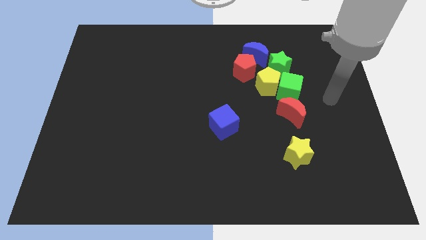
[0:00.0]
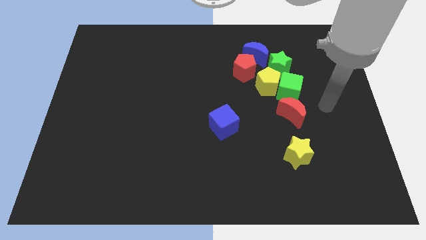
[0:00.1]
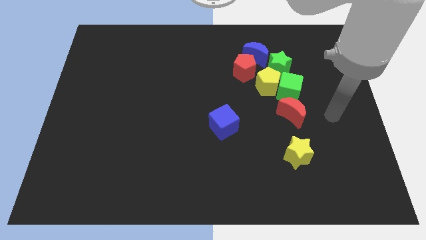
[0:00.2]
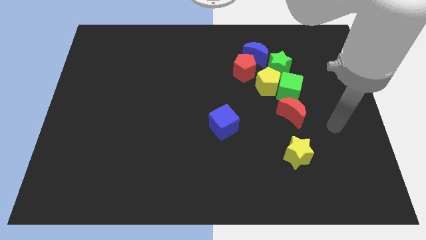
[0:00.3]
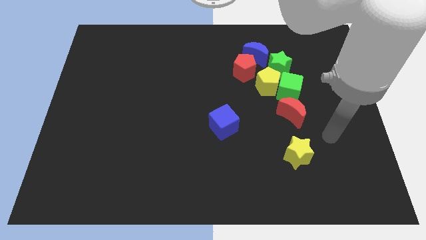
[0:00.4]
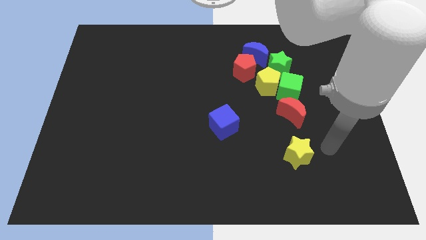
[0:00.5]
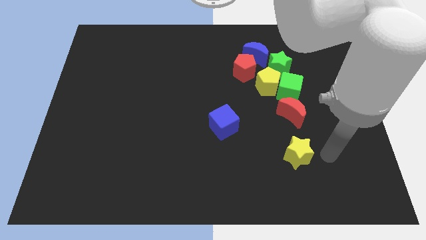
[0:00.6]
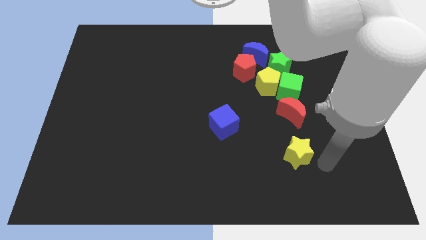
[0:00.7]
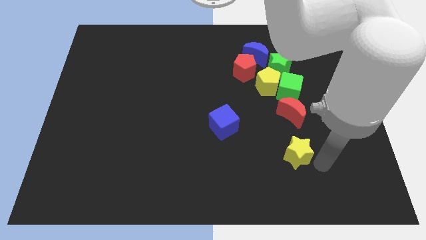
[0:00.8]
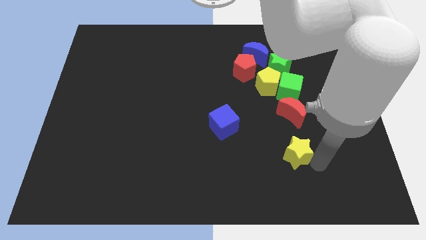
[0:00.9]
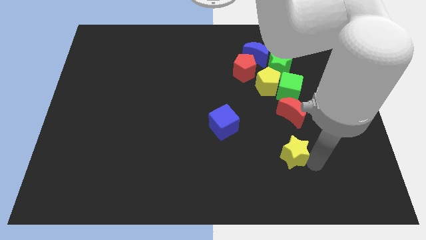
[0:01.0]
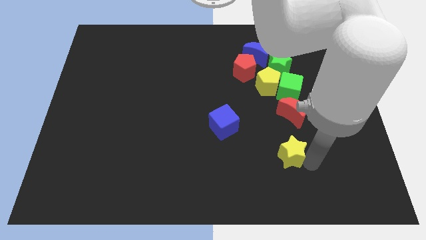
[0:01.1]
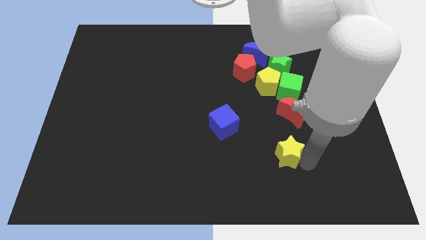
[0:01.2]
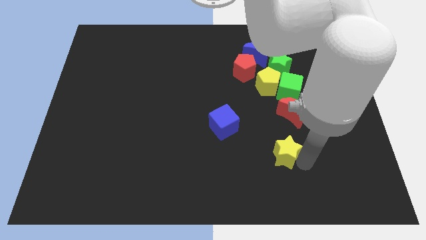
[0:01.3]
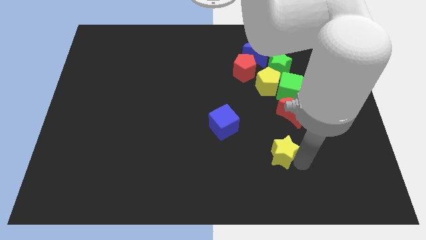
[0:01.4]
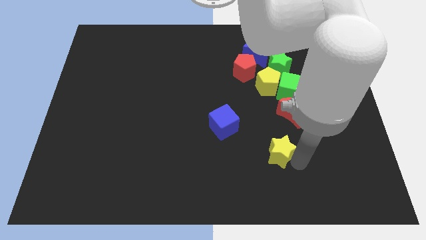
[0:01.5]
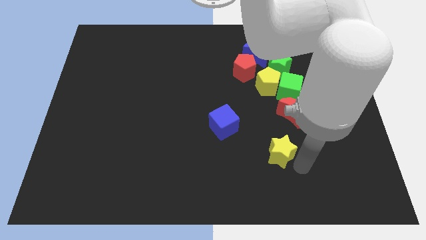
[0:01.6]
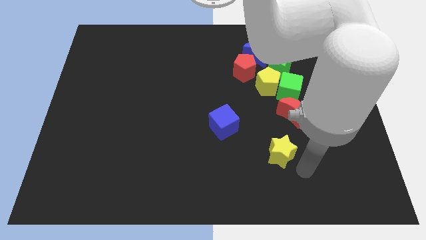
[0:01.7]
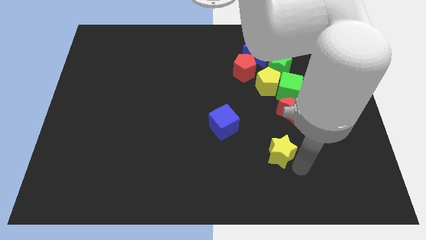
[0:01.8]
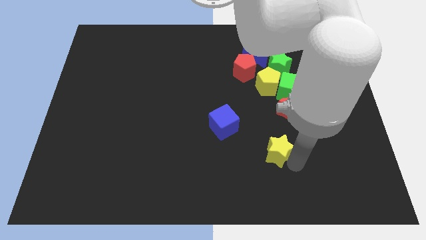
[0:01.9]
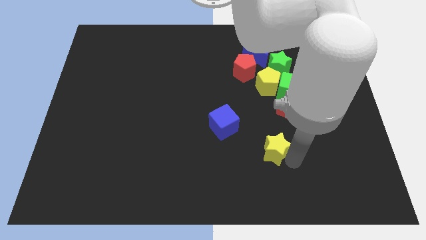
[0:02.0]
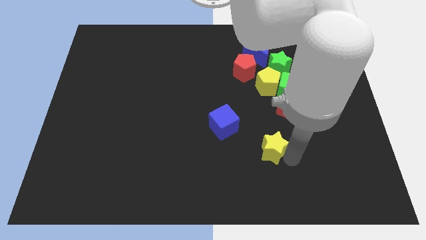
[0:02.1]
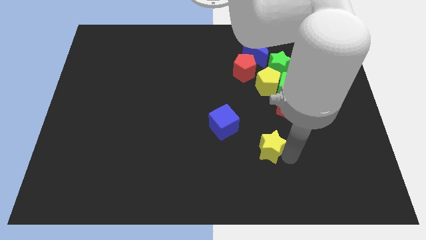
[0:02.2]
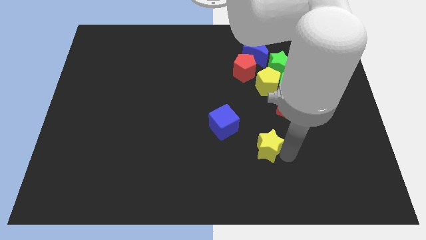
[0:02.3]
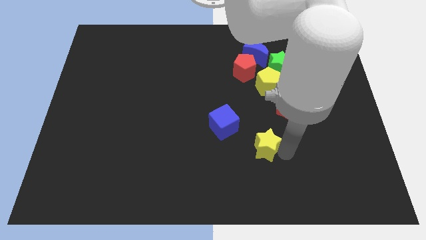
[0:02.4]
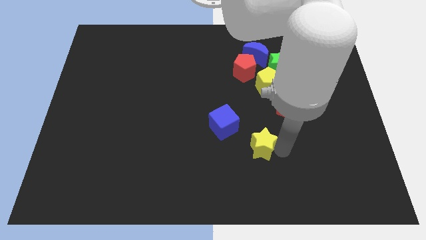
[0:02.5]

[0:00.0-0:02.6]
push the yellow star left a bit

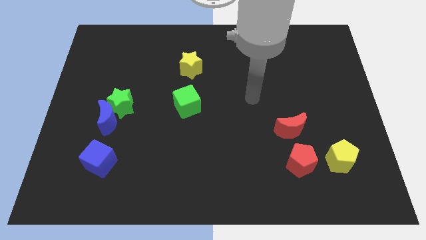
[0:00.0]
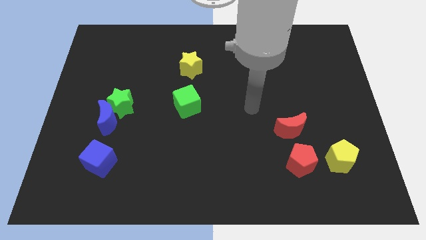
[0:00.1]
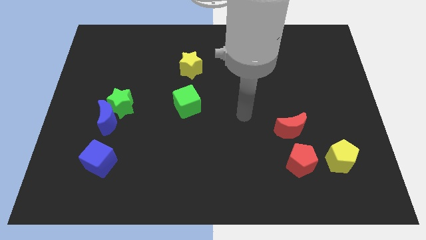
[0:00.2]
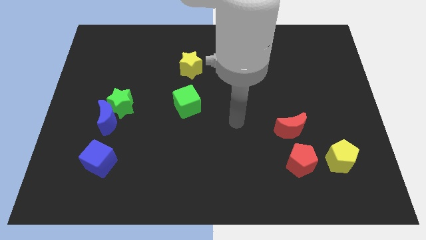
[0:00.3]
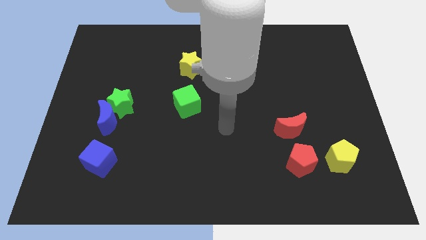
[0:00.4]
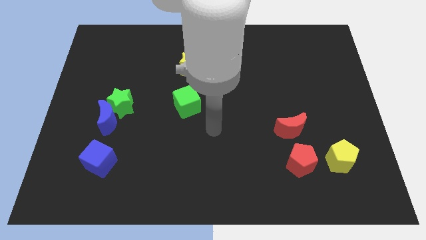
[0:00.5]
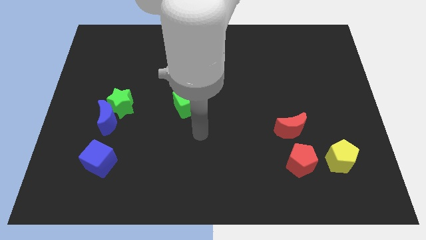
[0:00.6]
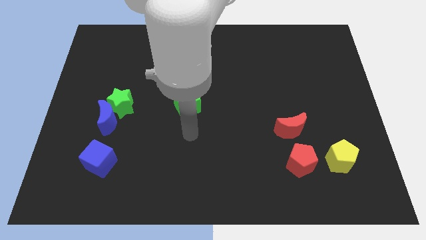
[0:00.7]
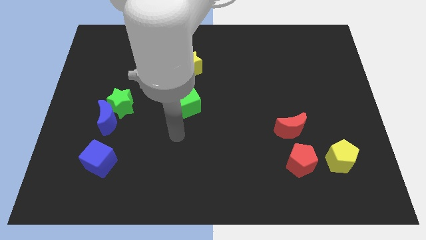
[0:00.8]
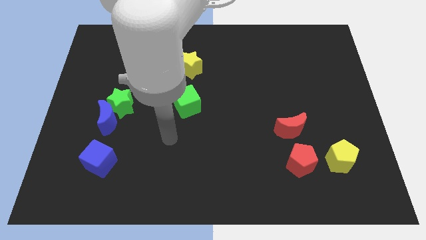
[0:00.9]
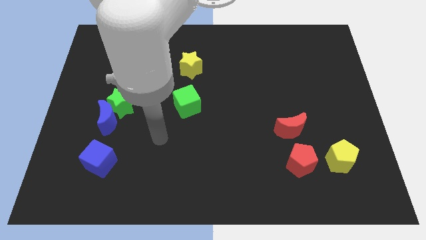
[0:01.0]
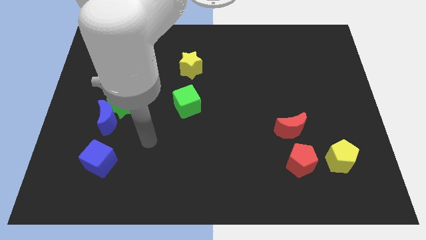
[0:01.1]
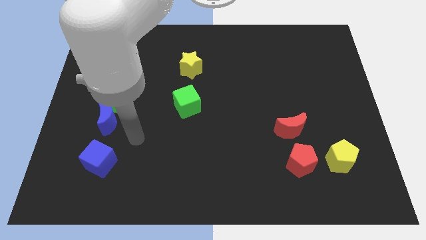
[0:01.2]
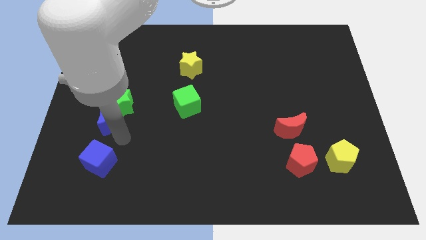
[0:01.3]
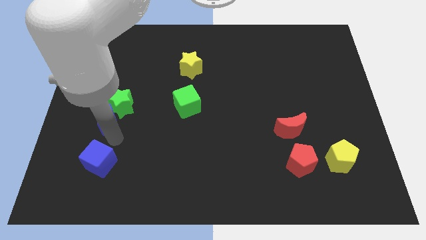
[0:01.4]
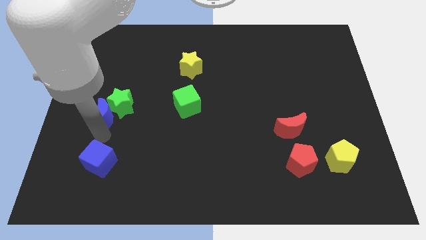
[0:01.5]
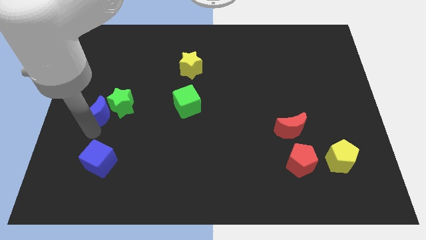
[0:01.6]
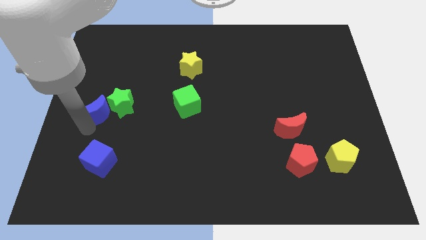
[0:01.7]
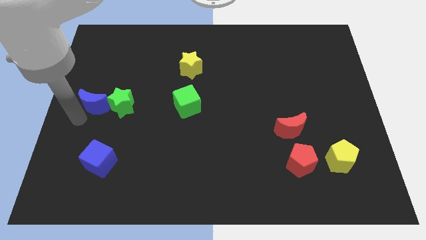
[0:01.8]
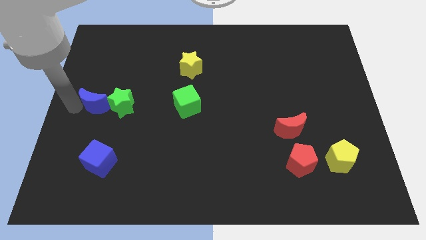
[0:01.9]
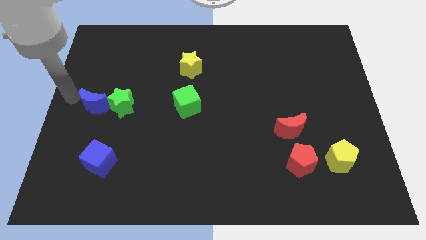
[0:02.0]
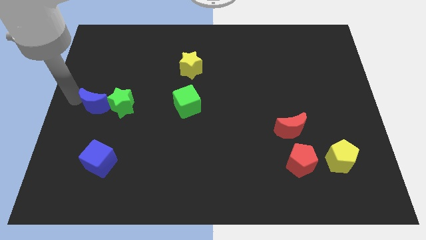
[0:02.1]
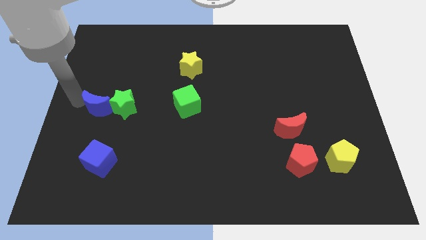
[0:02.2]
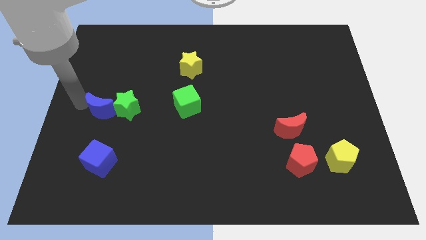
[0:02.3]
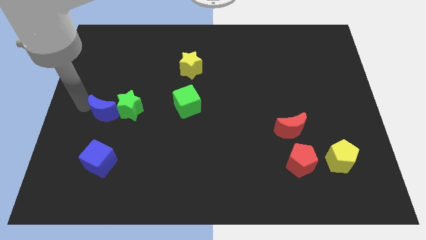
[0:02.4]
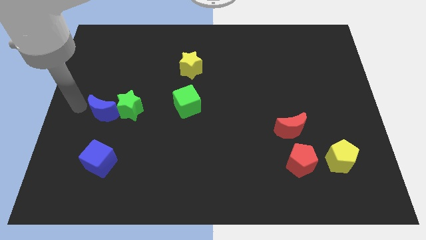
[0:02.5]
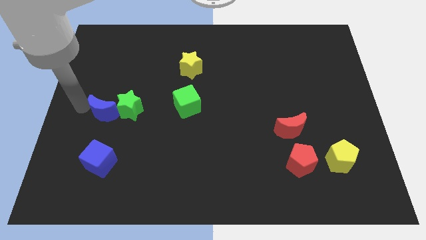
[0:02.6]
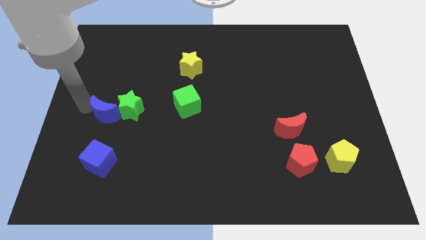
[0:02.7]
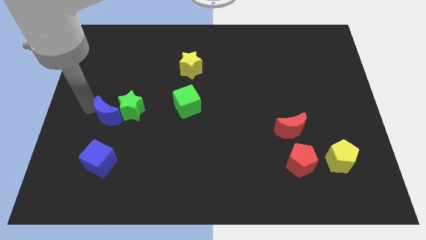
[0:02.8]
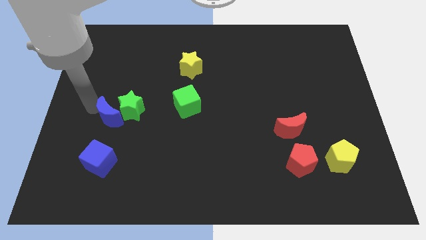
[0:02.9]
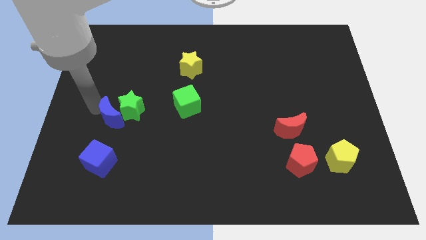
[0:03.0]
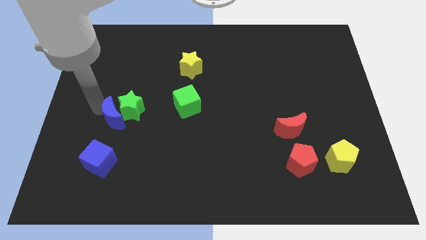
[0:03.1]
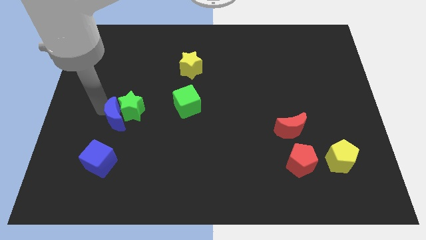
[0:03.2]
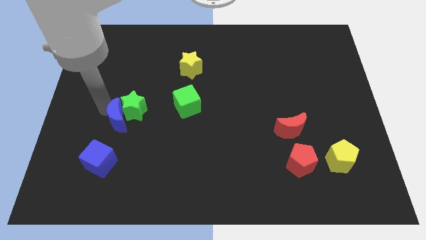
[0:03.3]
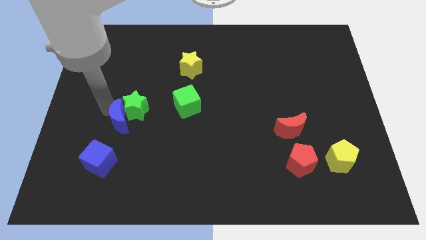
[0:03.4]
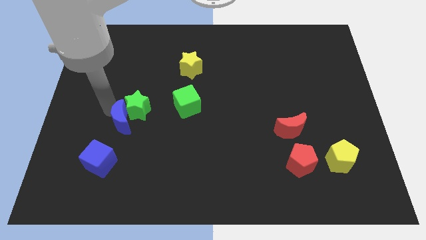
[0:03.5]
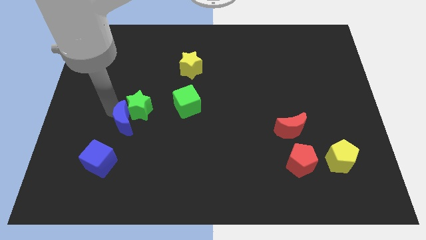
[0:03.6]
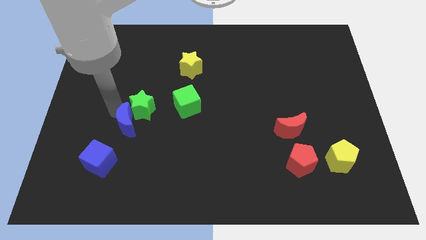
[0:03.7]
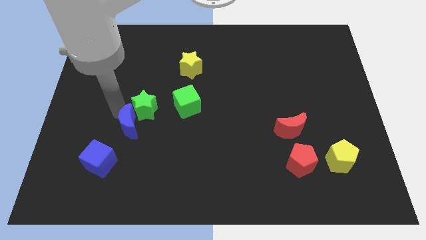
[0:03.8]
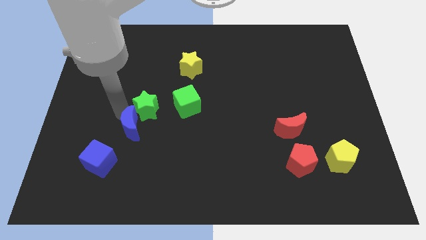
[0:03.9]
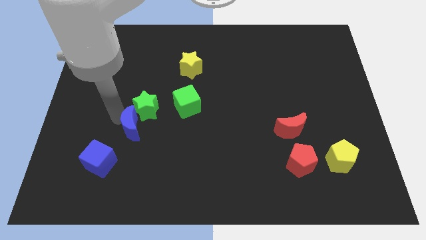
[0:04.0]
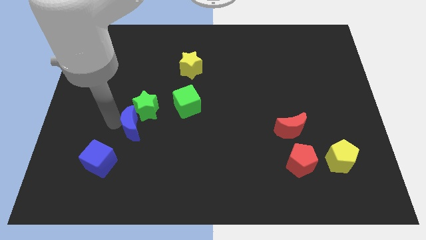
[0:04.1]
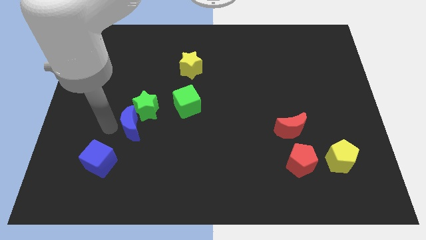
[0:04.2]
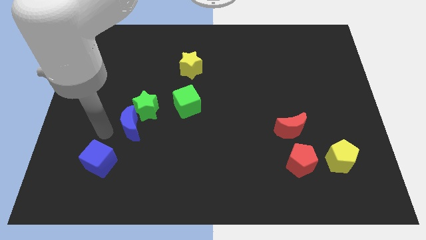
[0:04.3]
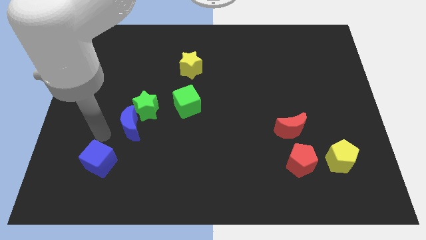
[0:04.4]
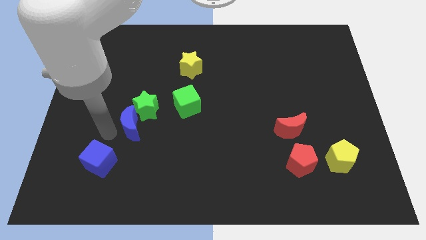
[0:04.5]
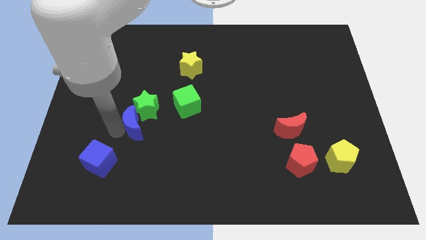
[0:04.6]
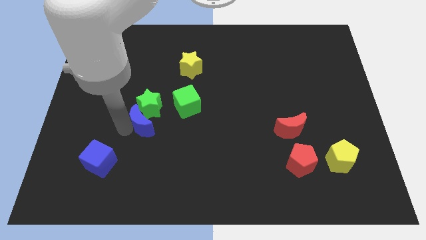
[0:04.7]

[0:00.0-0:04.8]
slightly push the blue moon to the right

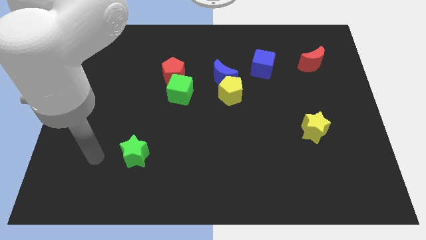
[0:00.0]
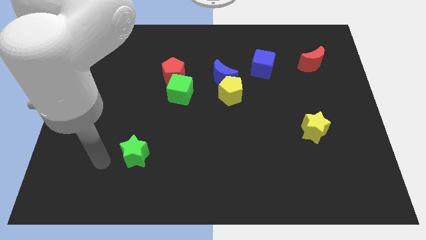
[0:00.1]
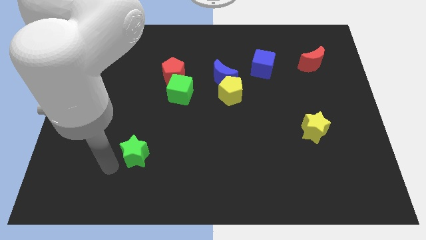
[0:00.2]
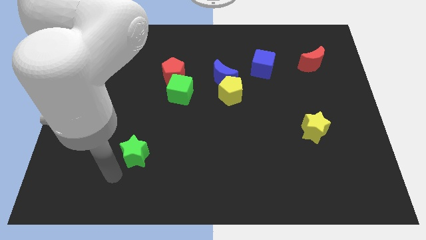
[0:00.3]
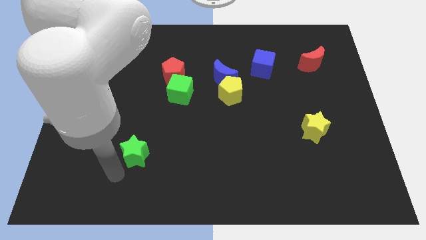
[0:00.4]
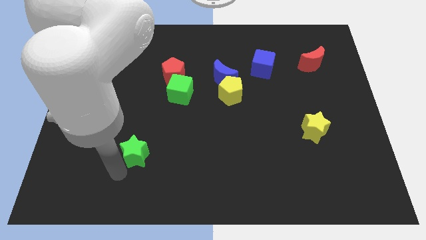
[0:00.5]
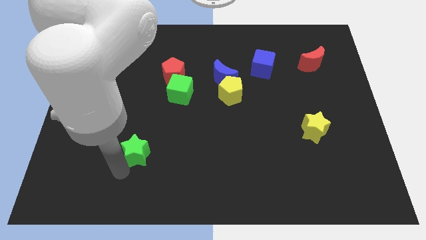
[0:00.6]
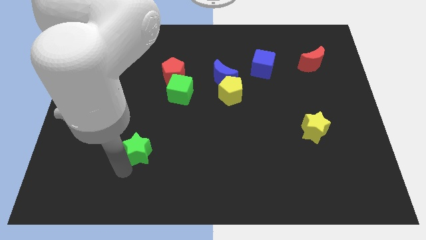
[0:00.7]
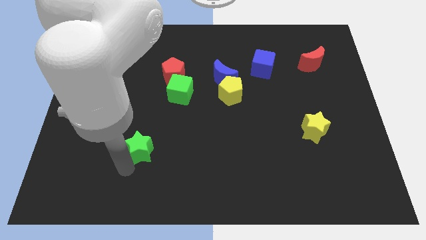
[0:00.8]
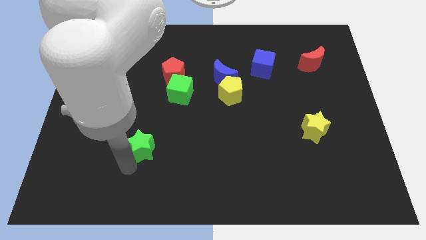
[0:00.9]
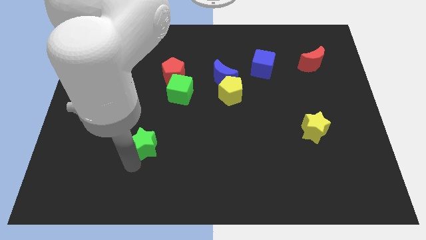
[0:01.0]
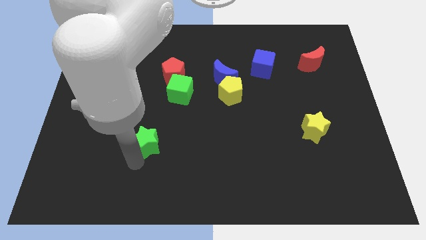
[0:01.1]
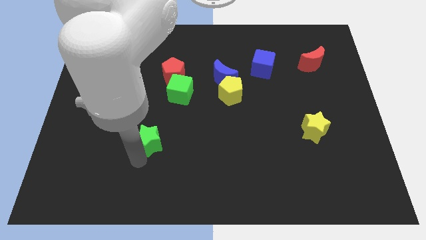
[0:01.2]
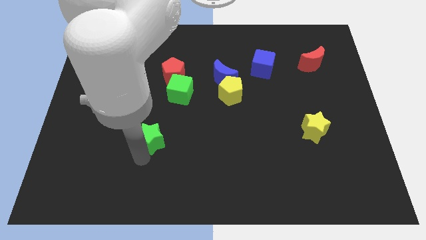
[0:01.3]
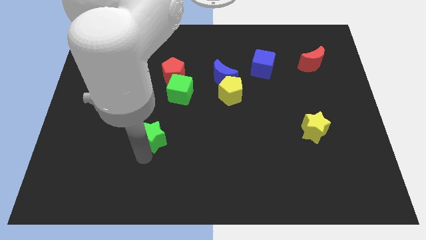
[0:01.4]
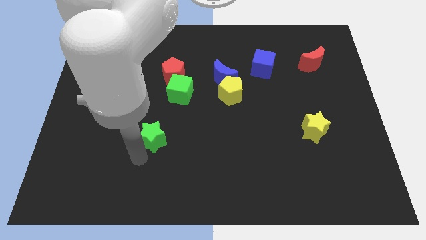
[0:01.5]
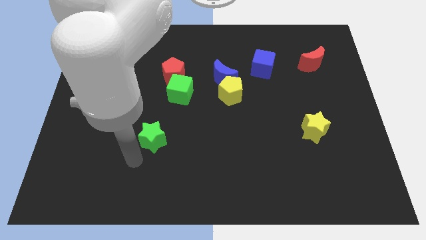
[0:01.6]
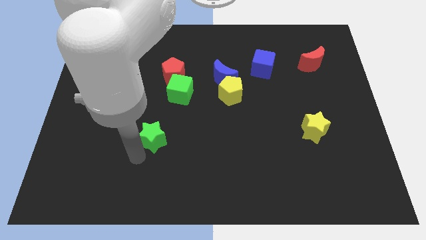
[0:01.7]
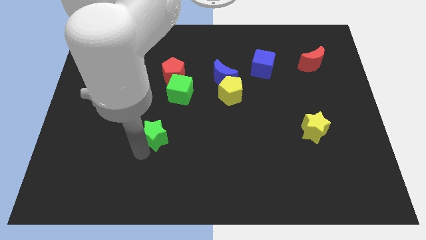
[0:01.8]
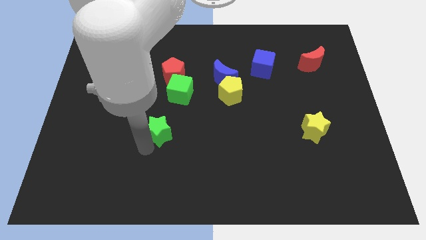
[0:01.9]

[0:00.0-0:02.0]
push the green star somewhat up and right
